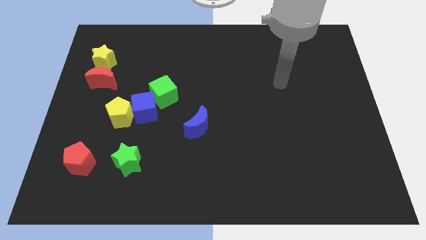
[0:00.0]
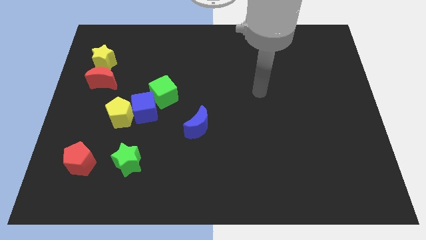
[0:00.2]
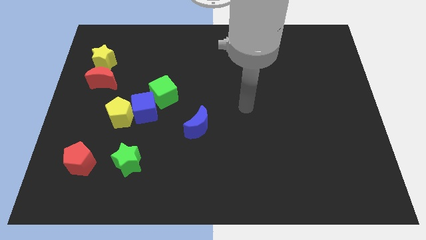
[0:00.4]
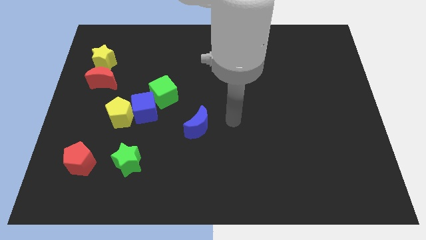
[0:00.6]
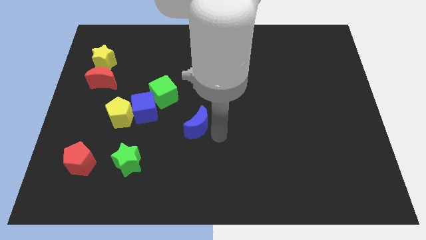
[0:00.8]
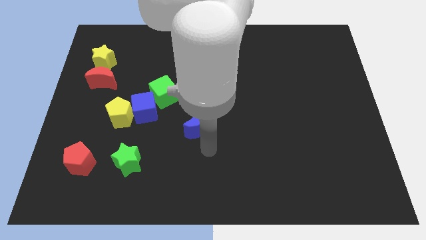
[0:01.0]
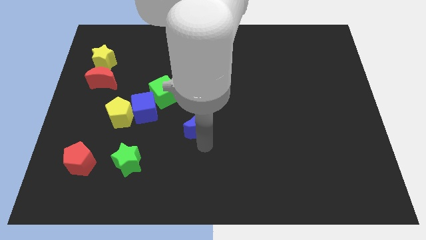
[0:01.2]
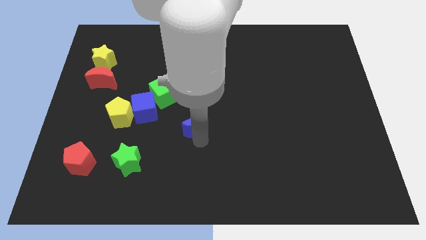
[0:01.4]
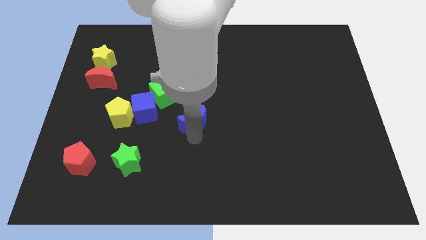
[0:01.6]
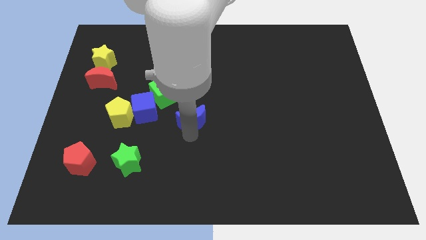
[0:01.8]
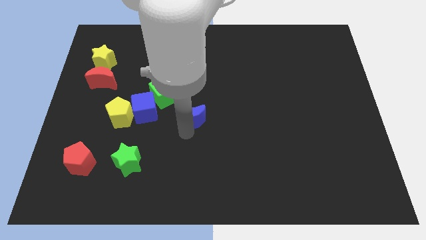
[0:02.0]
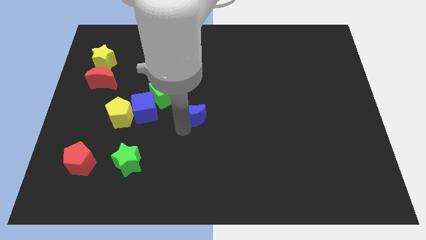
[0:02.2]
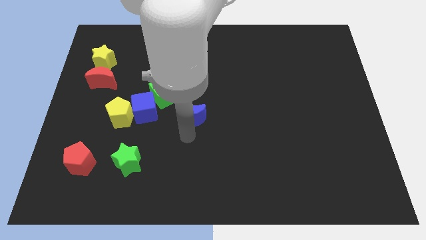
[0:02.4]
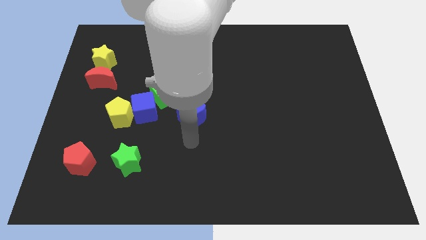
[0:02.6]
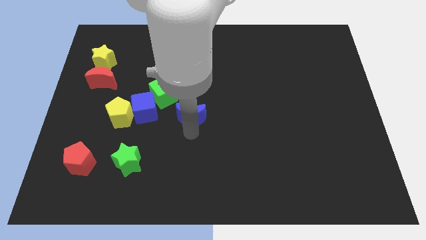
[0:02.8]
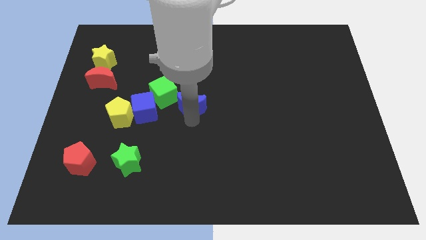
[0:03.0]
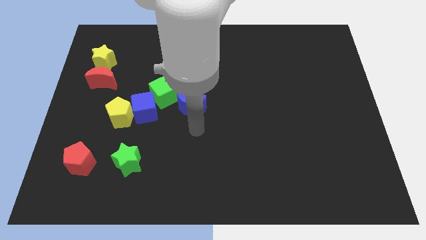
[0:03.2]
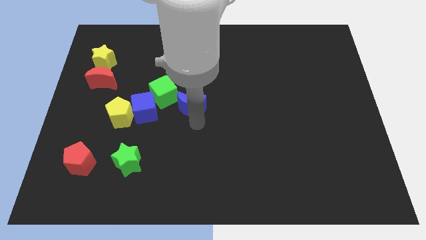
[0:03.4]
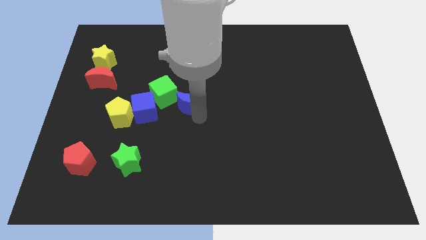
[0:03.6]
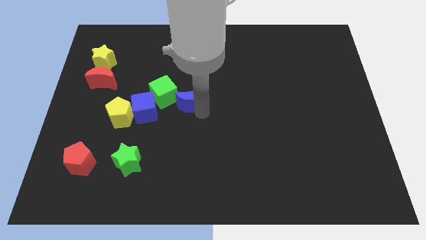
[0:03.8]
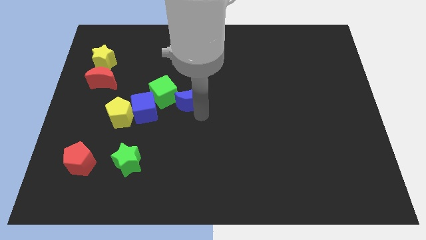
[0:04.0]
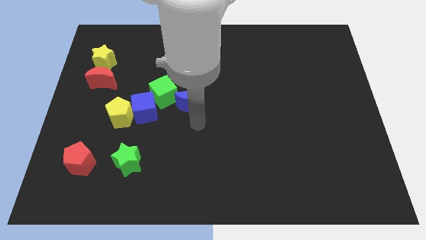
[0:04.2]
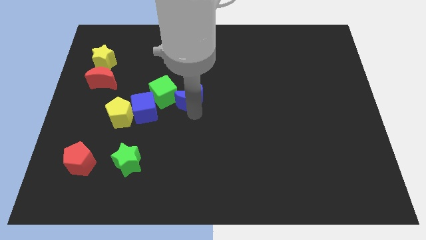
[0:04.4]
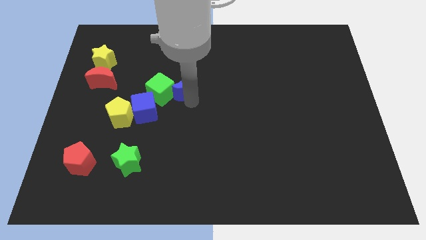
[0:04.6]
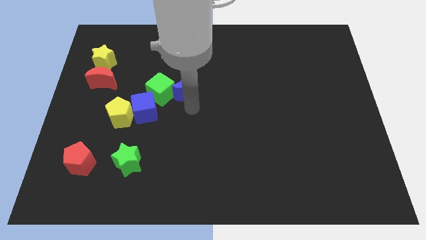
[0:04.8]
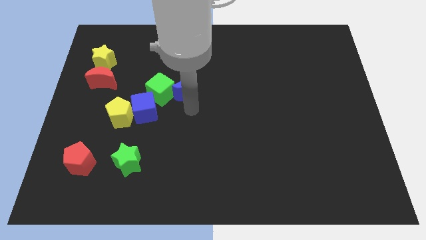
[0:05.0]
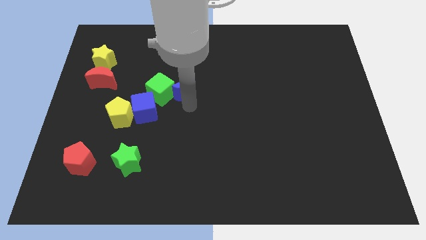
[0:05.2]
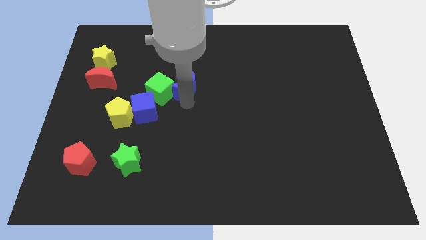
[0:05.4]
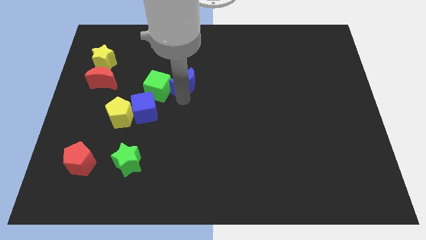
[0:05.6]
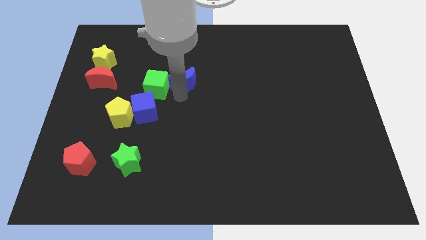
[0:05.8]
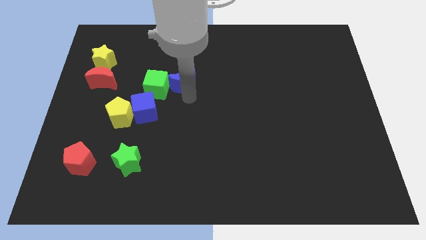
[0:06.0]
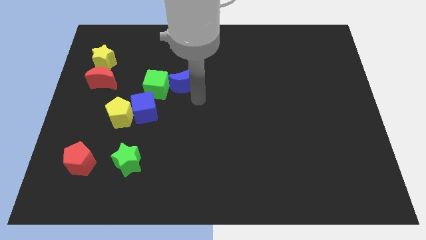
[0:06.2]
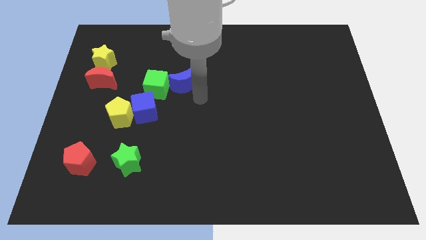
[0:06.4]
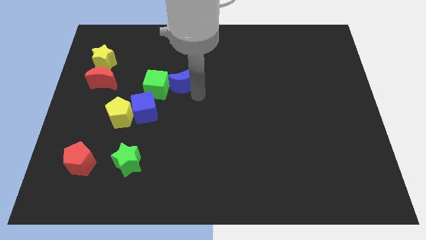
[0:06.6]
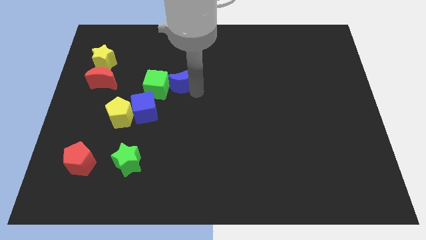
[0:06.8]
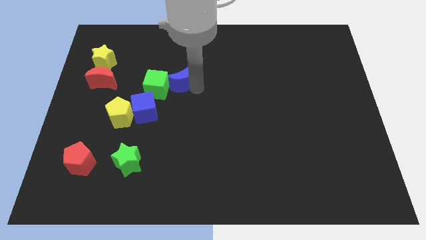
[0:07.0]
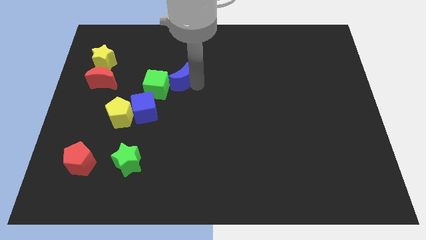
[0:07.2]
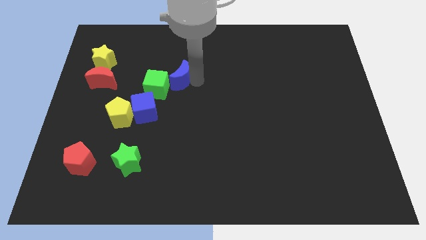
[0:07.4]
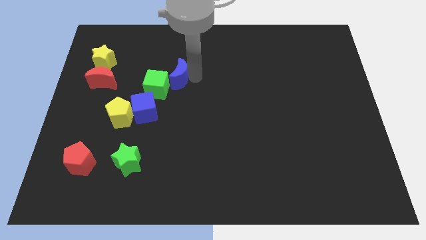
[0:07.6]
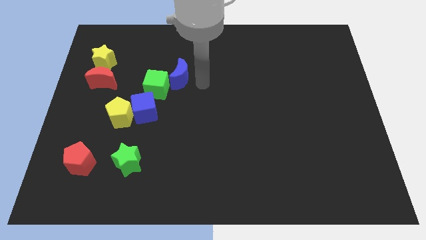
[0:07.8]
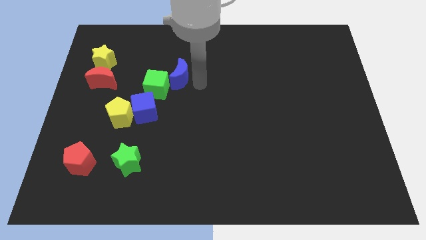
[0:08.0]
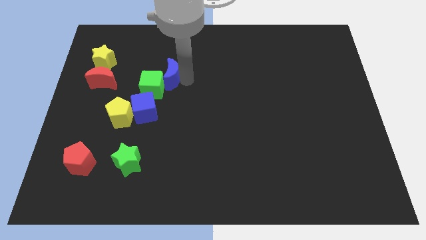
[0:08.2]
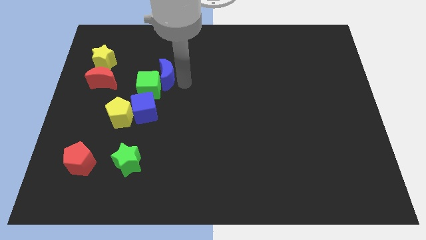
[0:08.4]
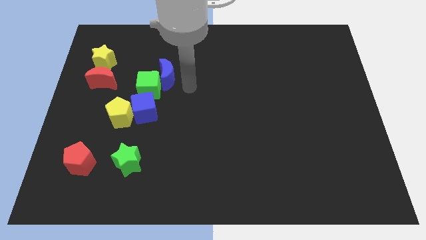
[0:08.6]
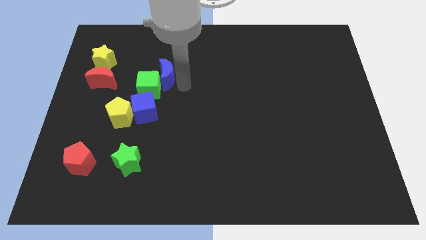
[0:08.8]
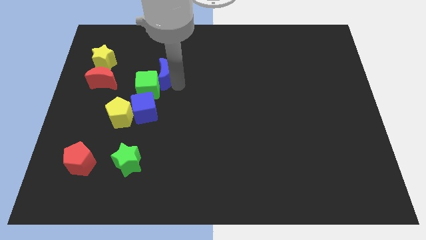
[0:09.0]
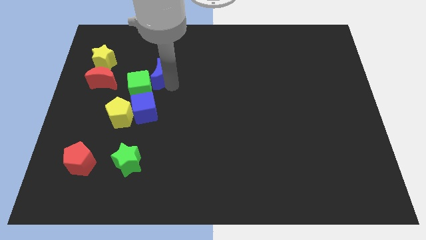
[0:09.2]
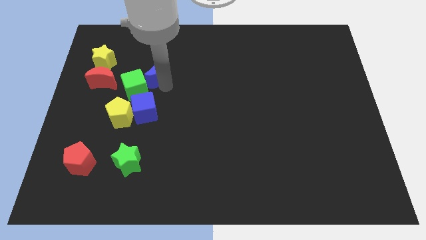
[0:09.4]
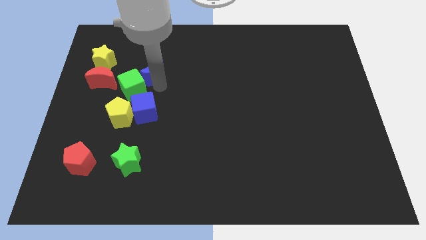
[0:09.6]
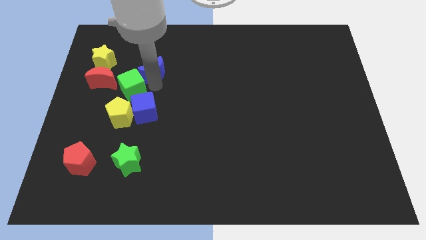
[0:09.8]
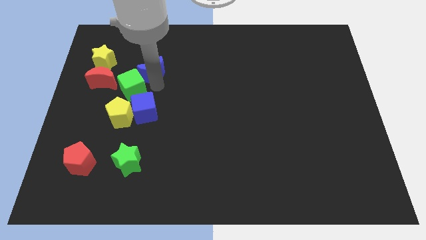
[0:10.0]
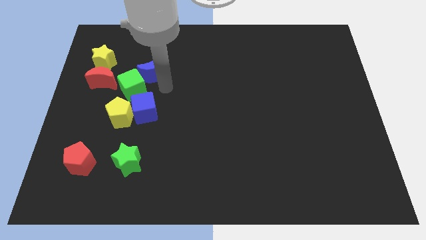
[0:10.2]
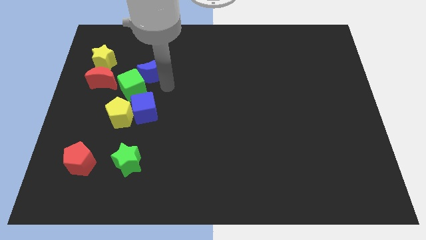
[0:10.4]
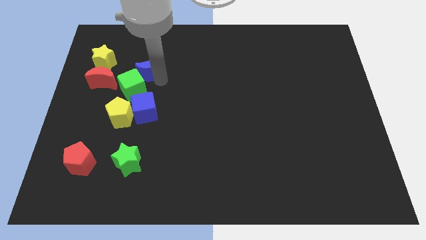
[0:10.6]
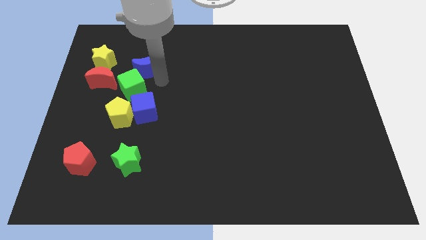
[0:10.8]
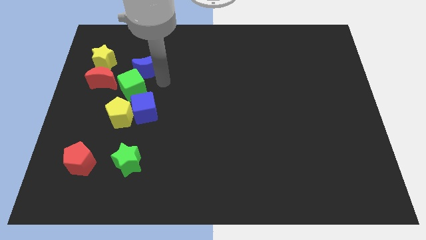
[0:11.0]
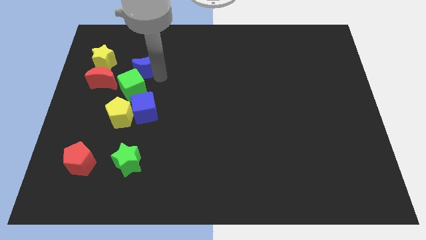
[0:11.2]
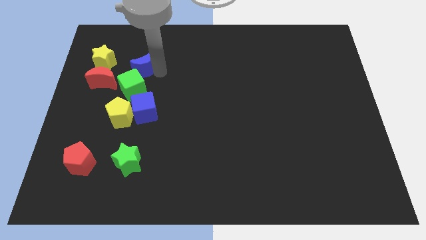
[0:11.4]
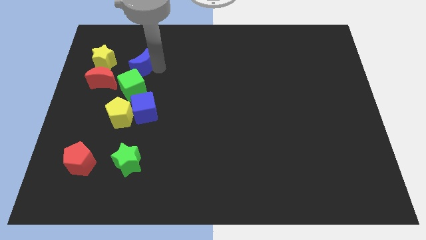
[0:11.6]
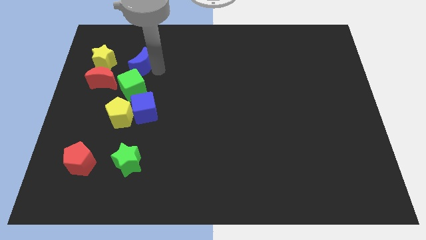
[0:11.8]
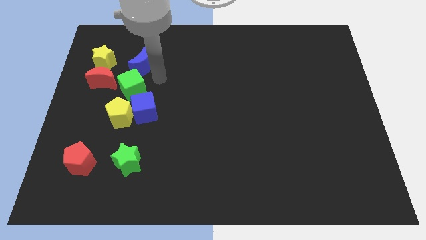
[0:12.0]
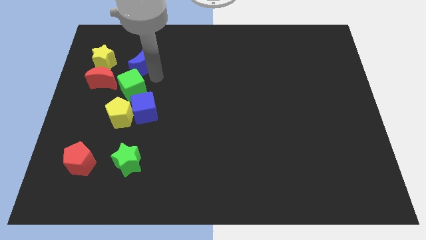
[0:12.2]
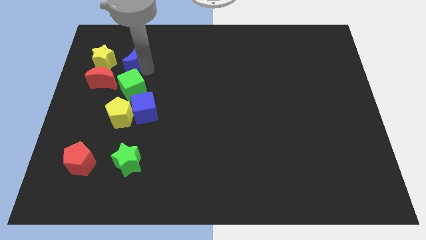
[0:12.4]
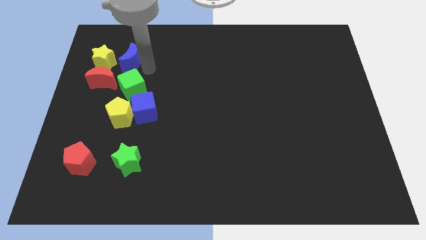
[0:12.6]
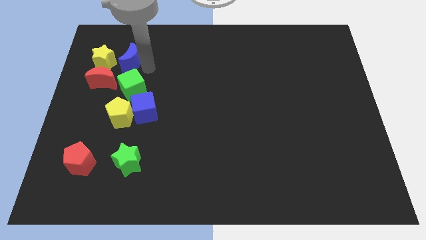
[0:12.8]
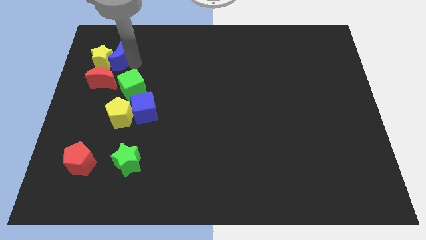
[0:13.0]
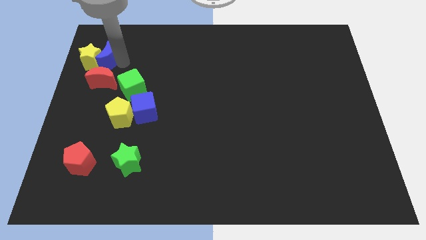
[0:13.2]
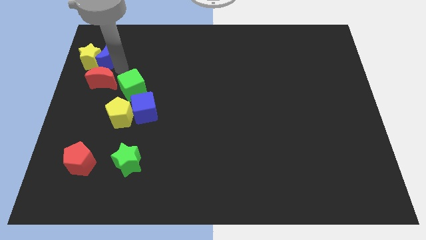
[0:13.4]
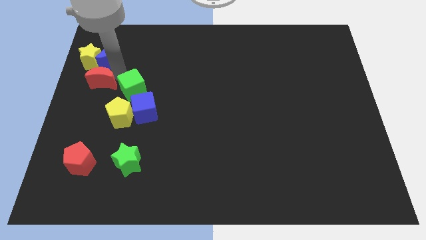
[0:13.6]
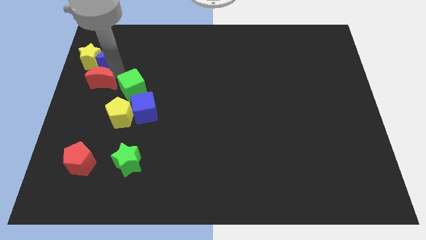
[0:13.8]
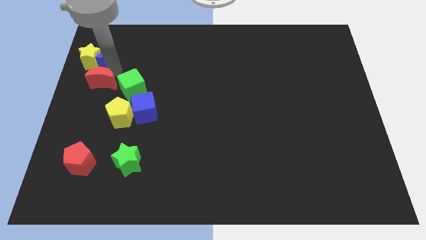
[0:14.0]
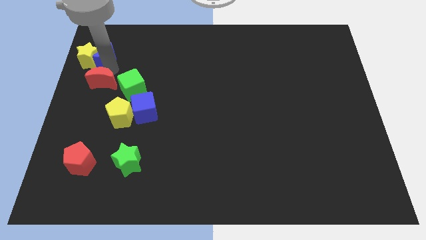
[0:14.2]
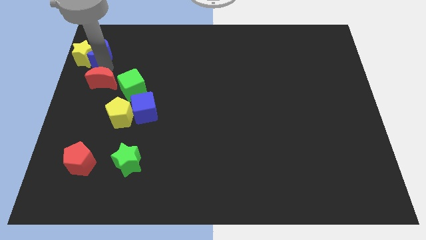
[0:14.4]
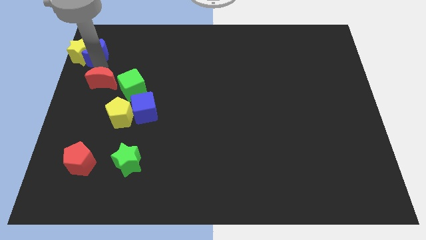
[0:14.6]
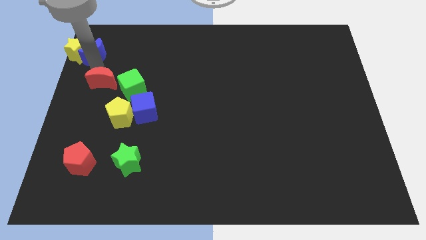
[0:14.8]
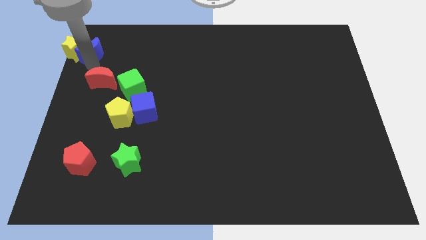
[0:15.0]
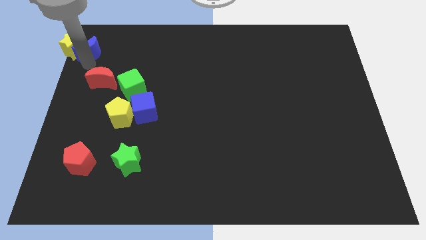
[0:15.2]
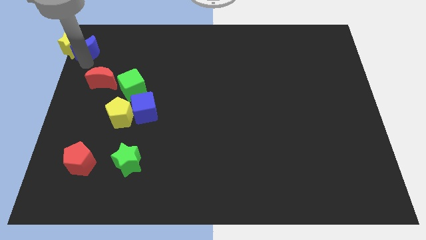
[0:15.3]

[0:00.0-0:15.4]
move the blue moon to the upper left corner
